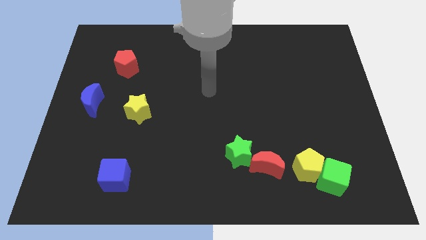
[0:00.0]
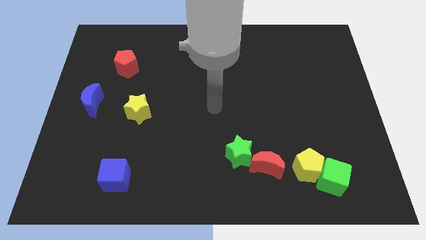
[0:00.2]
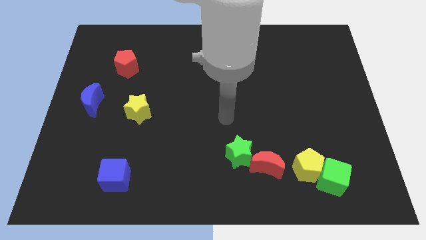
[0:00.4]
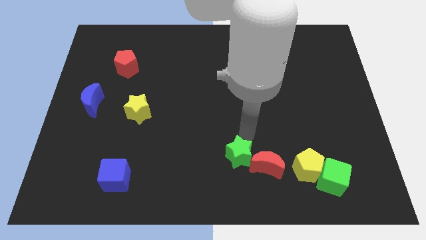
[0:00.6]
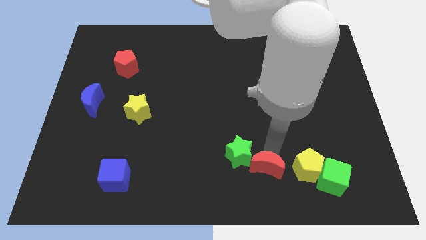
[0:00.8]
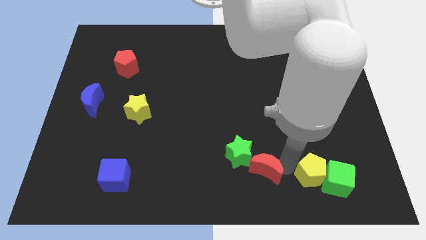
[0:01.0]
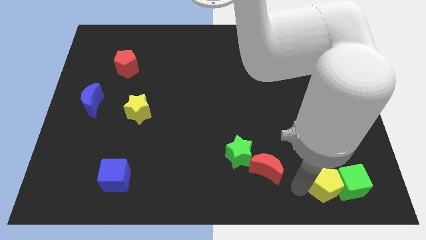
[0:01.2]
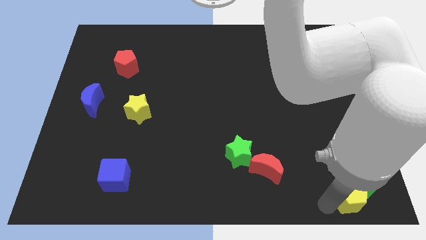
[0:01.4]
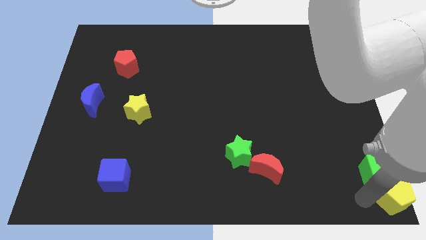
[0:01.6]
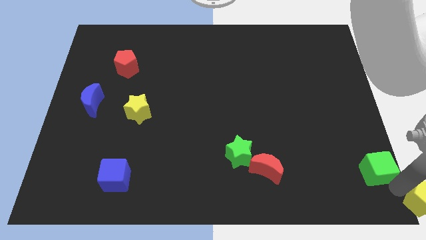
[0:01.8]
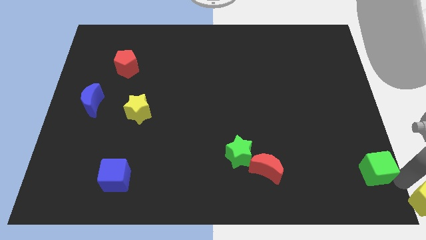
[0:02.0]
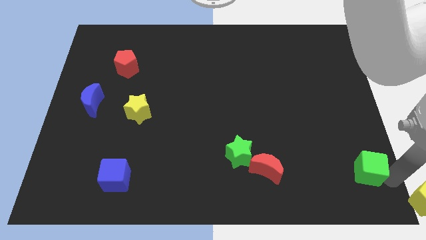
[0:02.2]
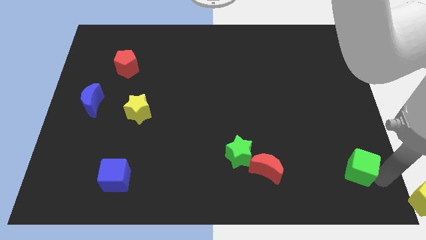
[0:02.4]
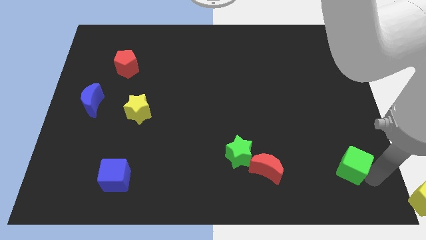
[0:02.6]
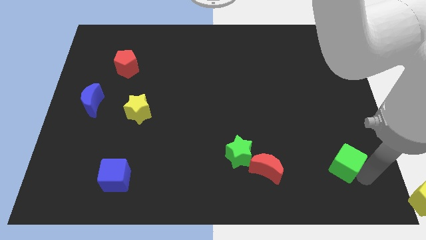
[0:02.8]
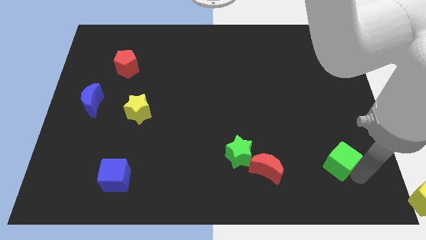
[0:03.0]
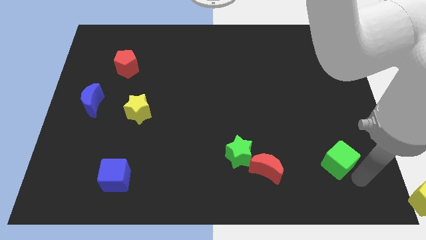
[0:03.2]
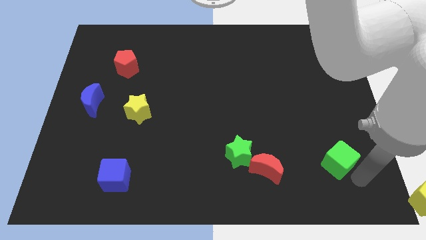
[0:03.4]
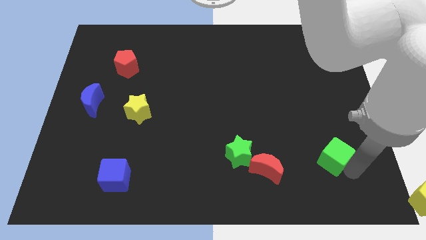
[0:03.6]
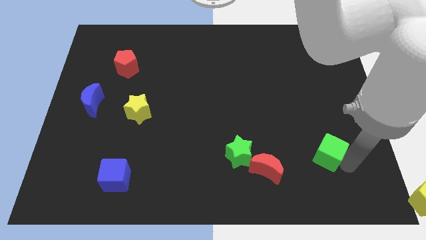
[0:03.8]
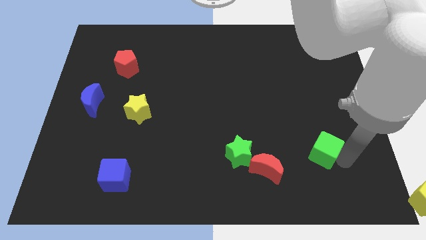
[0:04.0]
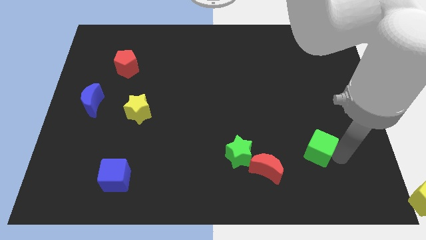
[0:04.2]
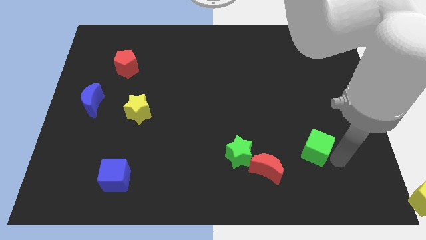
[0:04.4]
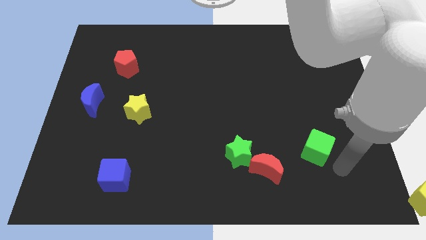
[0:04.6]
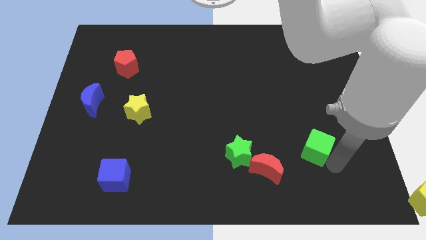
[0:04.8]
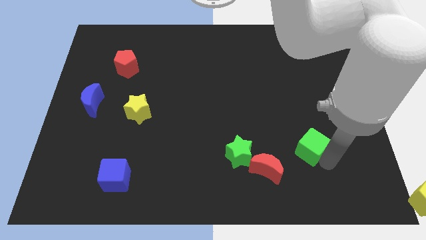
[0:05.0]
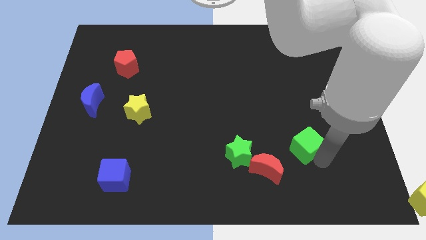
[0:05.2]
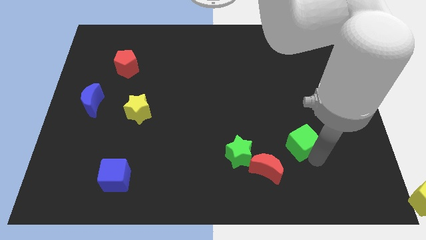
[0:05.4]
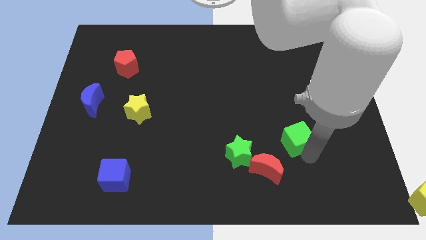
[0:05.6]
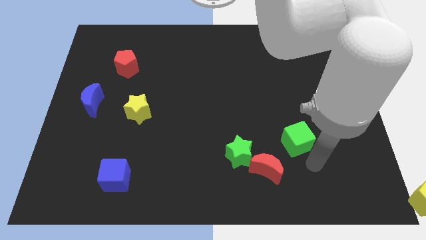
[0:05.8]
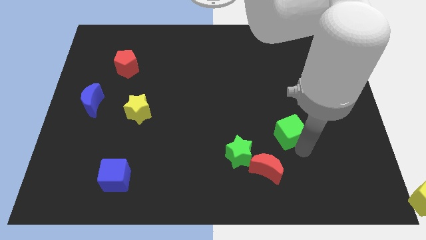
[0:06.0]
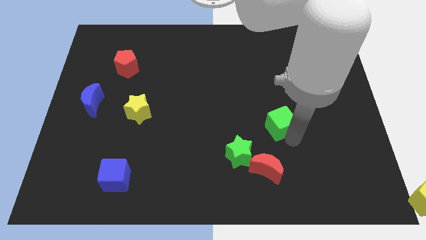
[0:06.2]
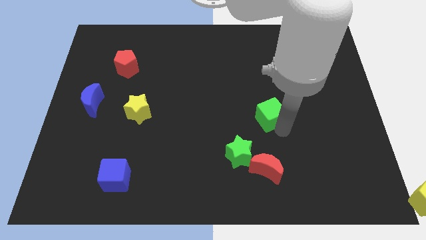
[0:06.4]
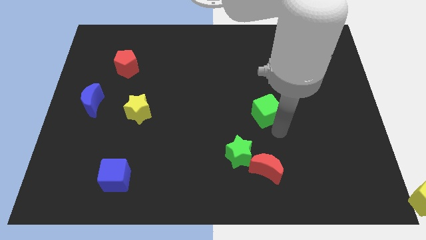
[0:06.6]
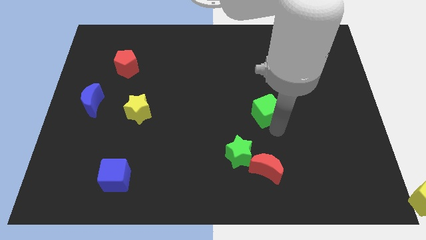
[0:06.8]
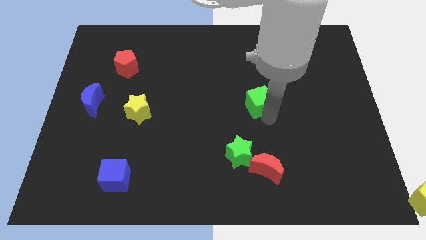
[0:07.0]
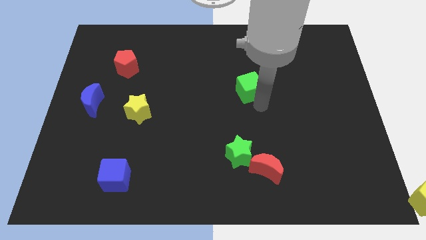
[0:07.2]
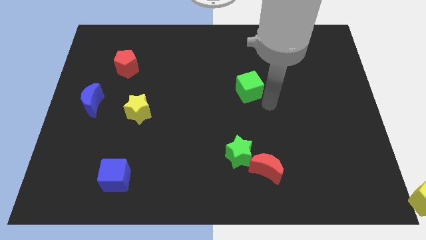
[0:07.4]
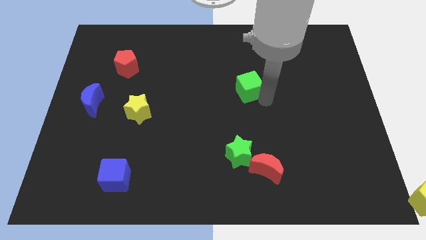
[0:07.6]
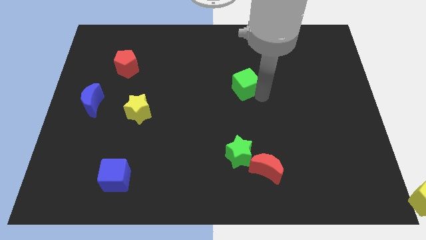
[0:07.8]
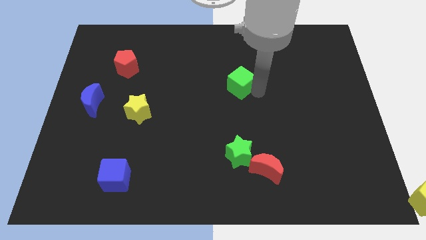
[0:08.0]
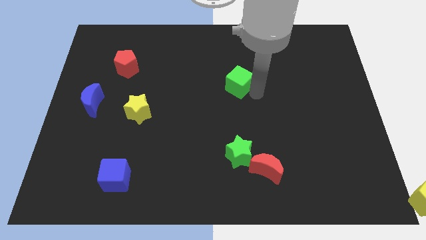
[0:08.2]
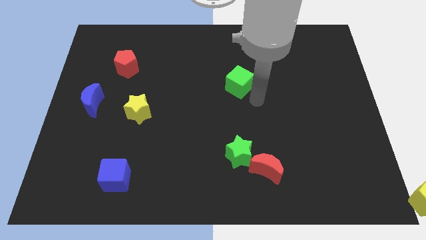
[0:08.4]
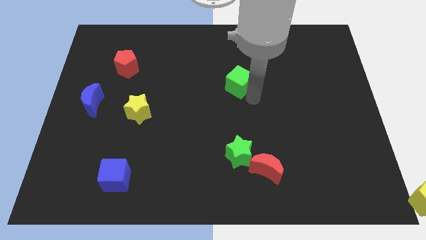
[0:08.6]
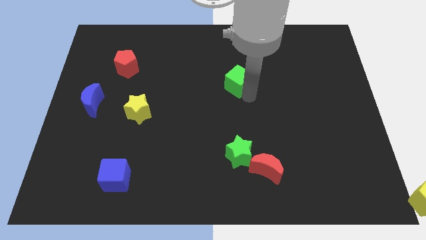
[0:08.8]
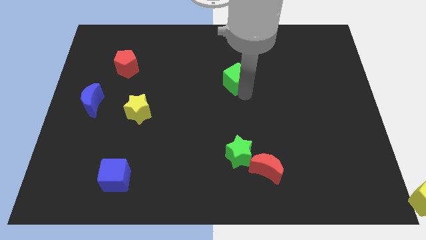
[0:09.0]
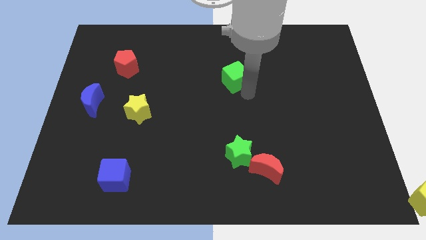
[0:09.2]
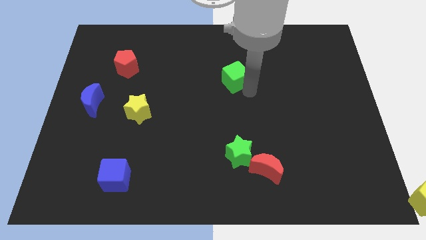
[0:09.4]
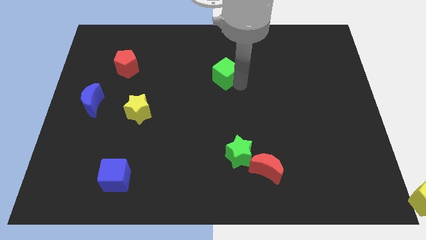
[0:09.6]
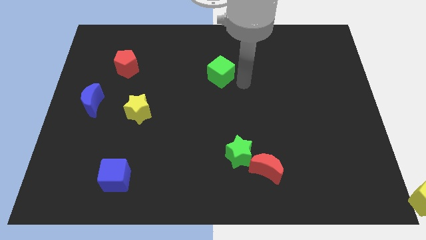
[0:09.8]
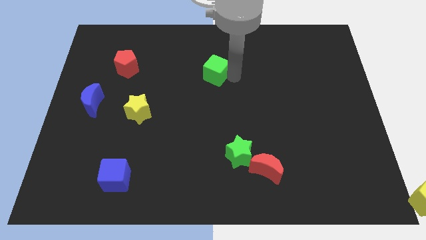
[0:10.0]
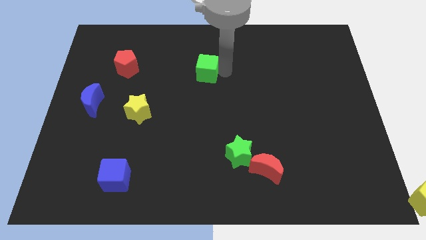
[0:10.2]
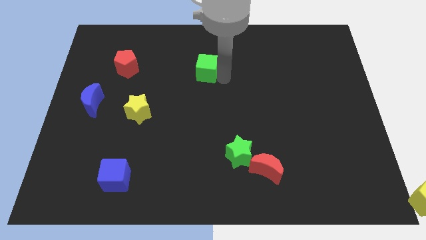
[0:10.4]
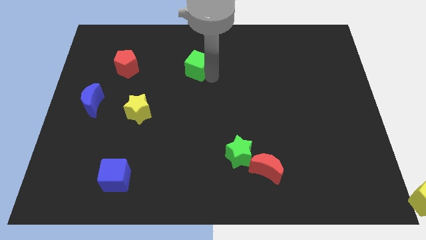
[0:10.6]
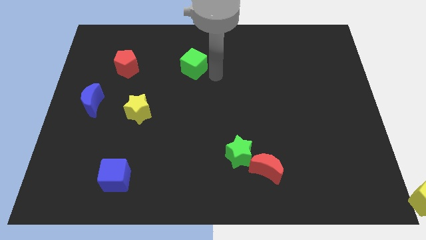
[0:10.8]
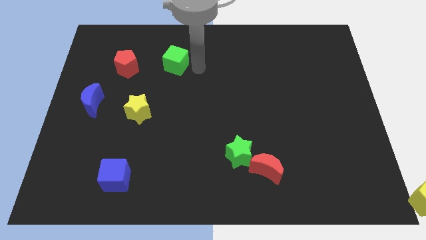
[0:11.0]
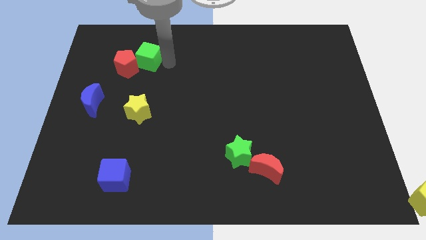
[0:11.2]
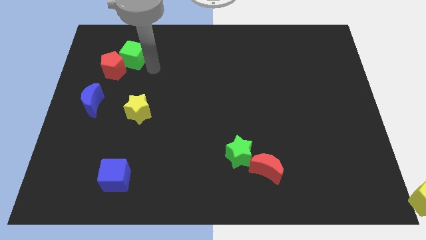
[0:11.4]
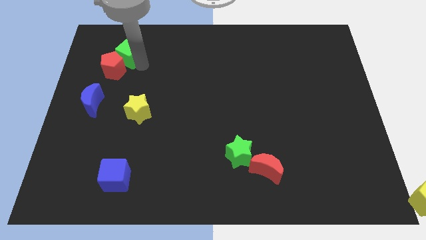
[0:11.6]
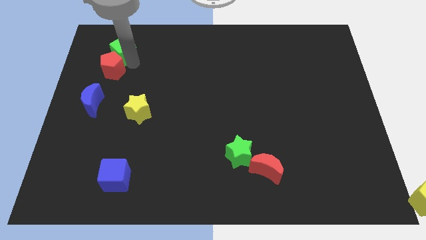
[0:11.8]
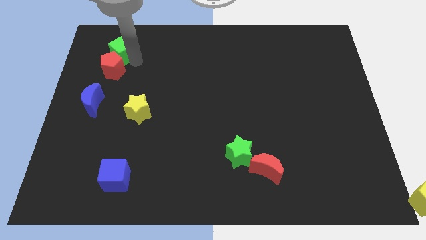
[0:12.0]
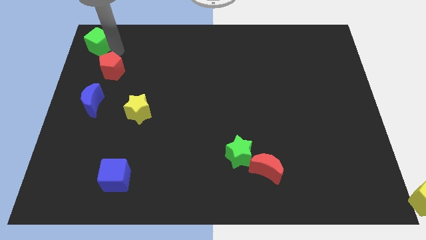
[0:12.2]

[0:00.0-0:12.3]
push the green cube to the top left of the board

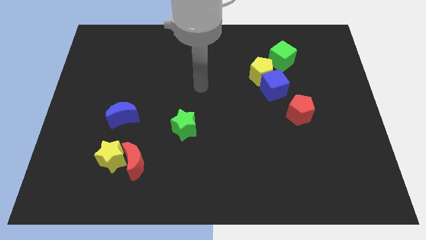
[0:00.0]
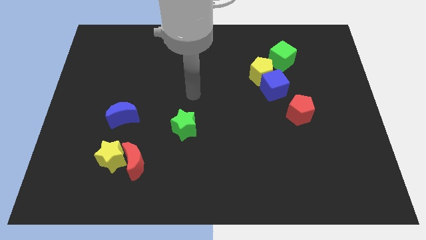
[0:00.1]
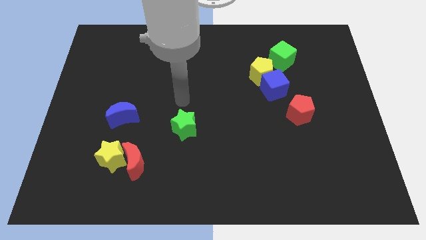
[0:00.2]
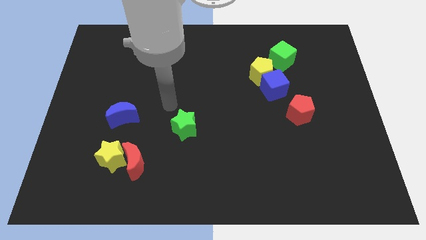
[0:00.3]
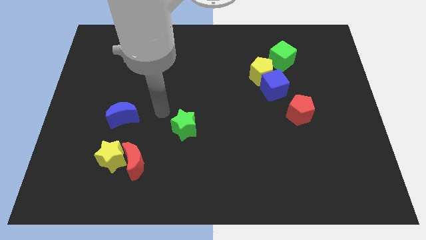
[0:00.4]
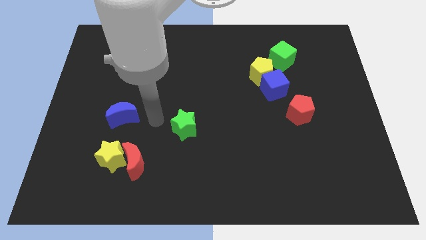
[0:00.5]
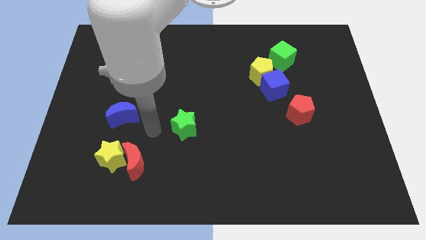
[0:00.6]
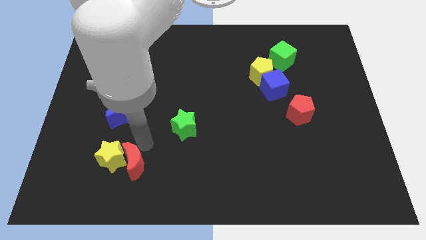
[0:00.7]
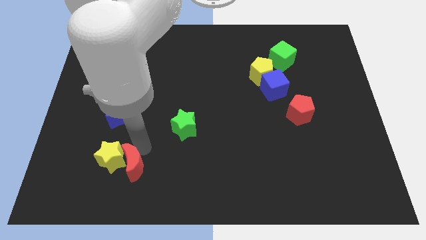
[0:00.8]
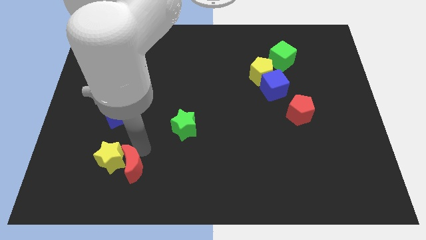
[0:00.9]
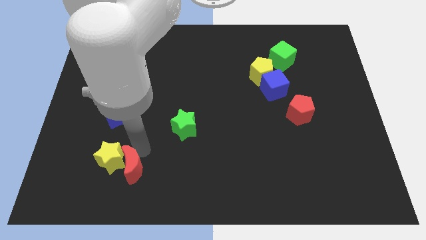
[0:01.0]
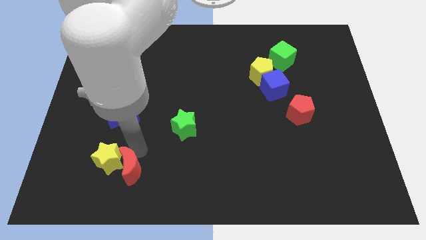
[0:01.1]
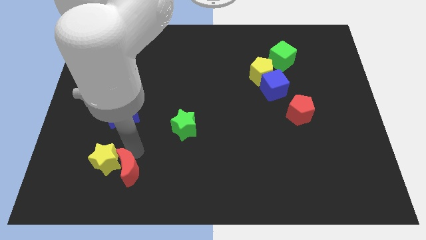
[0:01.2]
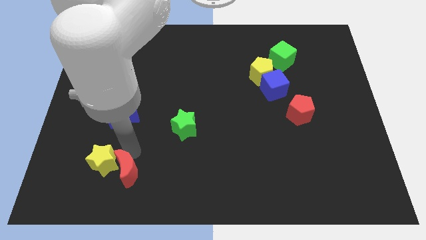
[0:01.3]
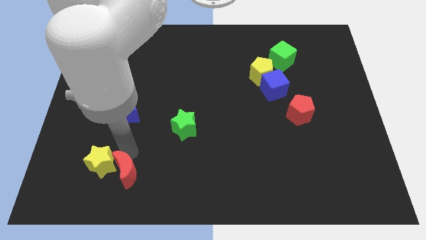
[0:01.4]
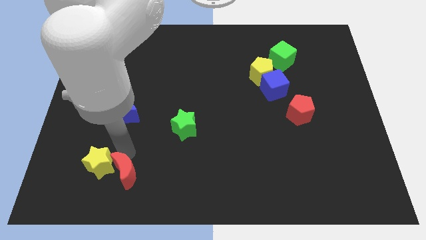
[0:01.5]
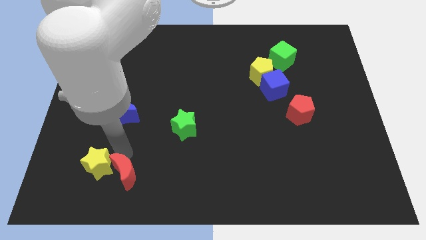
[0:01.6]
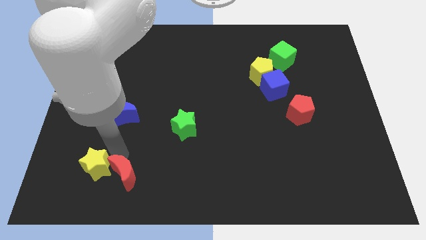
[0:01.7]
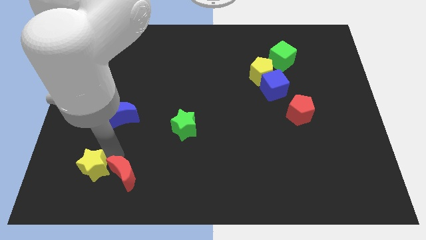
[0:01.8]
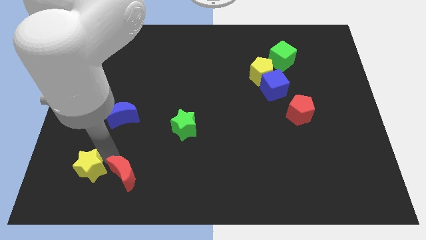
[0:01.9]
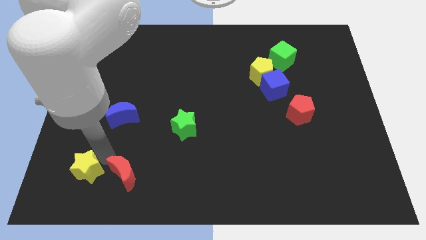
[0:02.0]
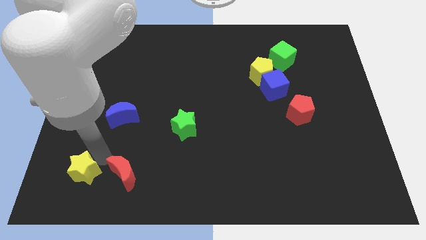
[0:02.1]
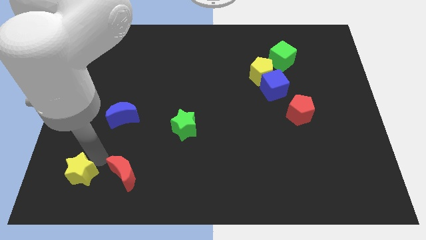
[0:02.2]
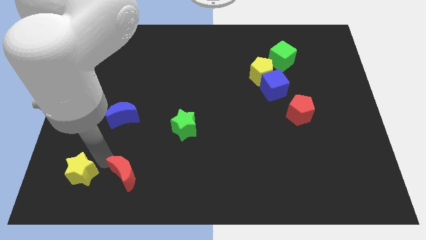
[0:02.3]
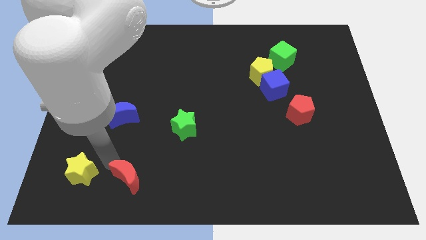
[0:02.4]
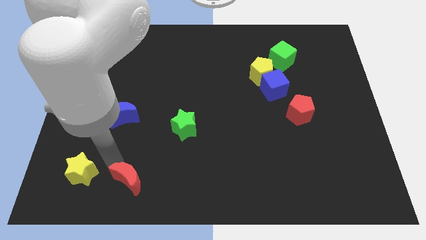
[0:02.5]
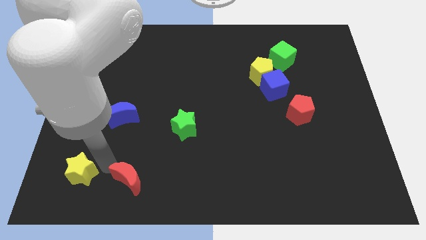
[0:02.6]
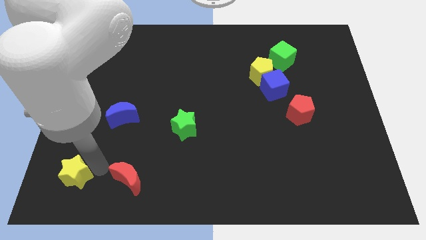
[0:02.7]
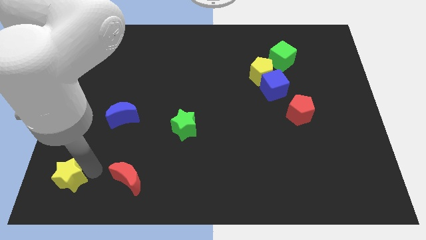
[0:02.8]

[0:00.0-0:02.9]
move the yellow star to the bottom left corner
